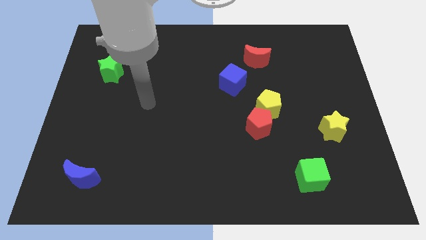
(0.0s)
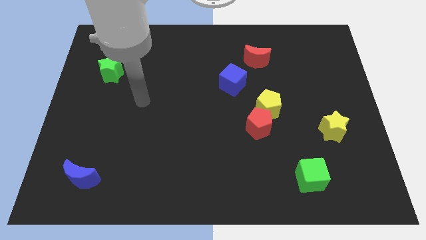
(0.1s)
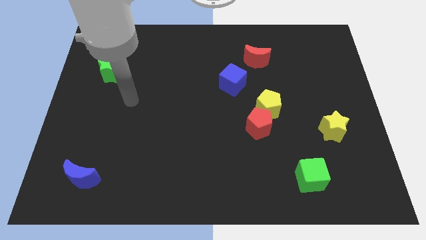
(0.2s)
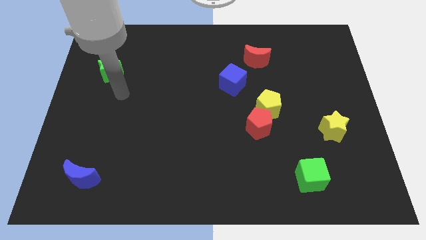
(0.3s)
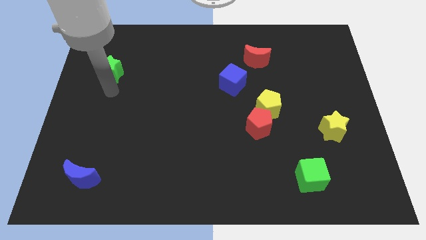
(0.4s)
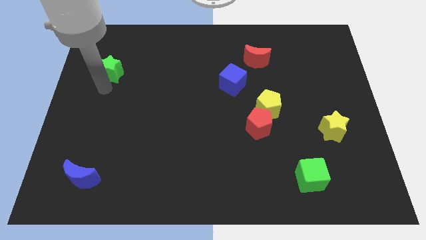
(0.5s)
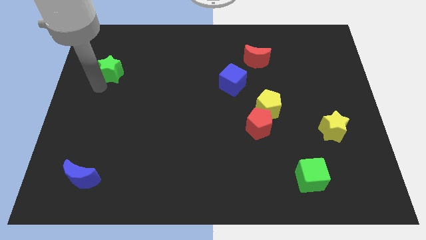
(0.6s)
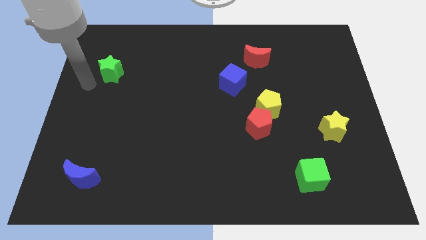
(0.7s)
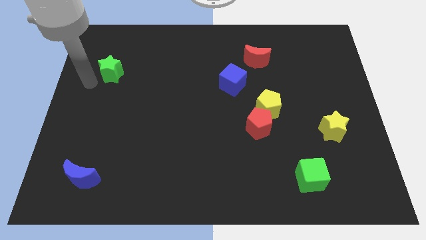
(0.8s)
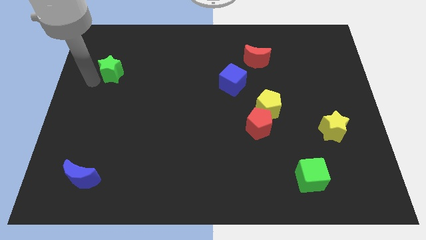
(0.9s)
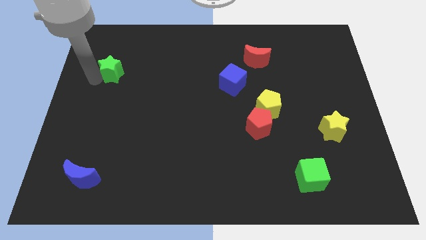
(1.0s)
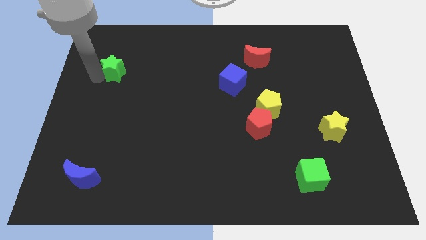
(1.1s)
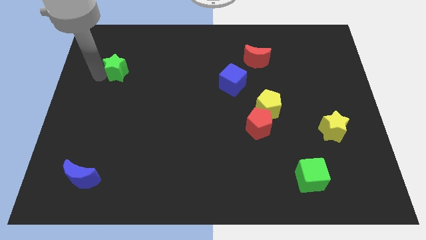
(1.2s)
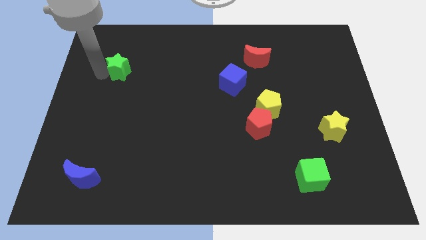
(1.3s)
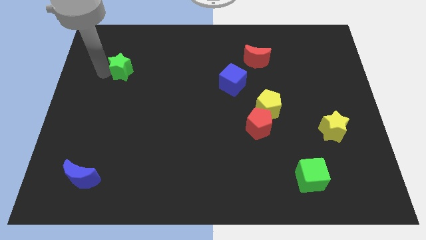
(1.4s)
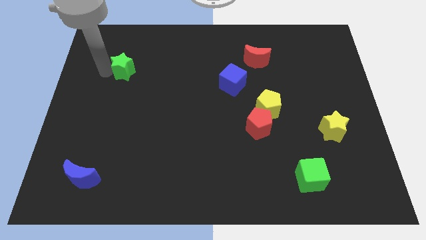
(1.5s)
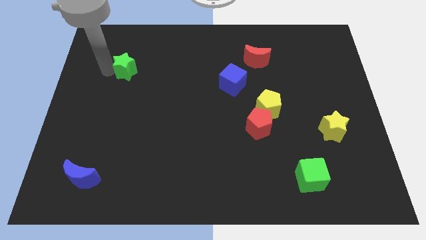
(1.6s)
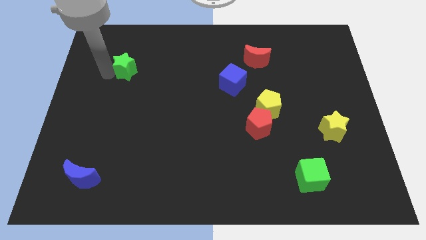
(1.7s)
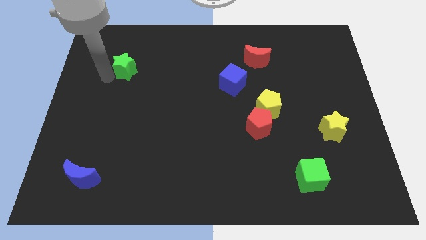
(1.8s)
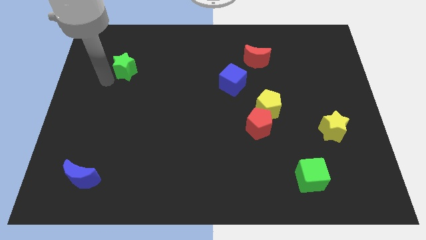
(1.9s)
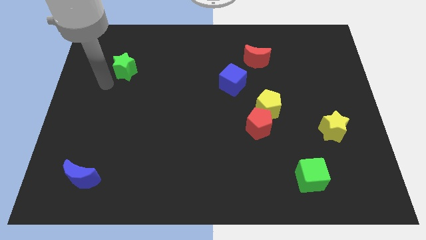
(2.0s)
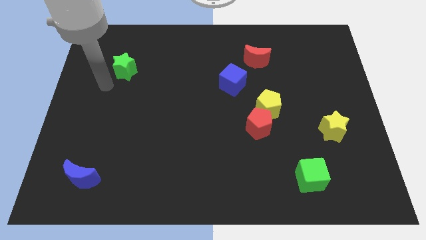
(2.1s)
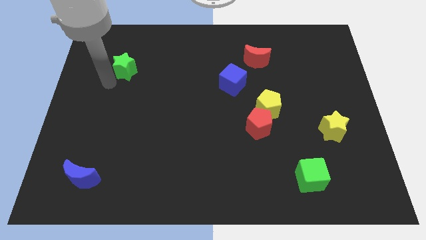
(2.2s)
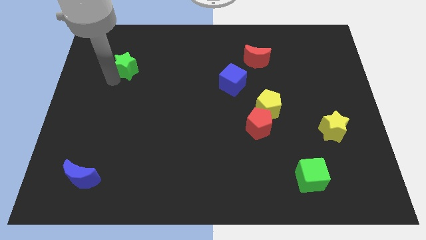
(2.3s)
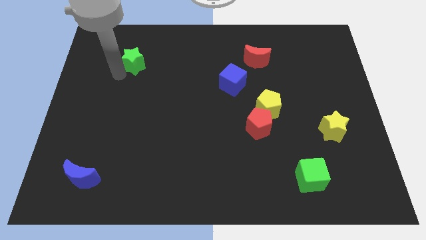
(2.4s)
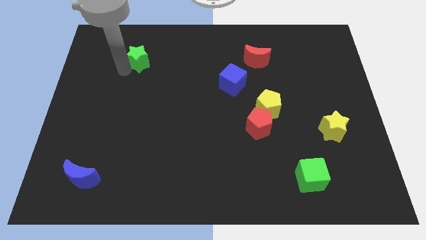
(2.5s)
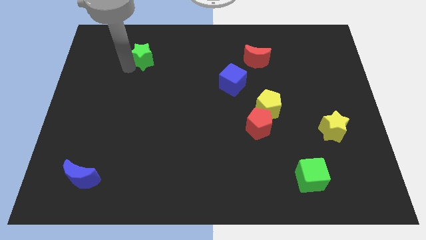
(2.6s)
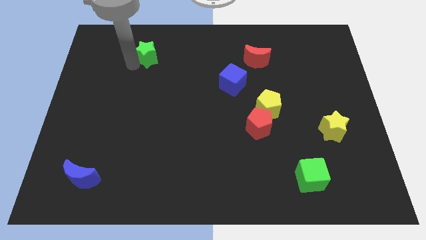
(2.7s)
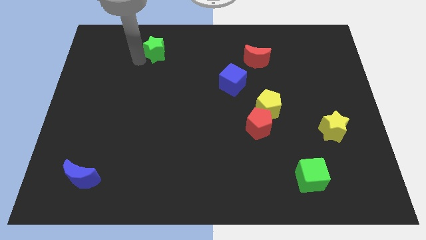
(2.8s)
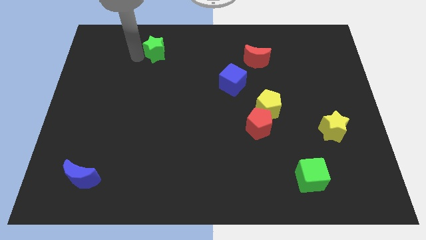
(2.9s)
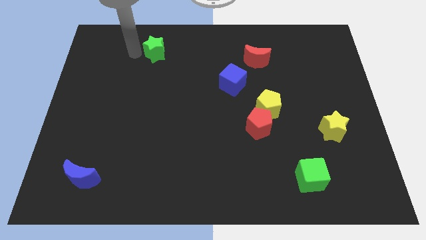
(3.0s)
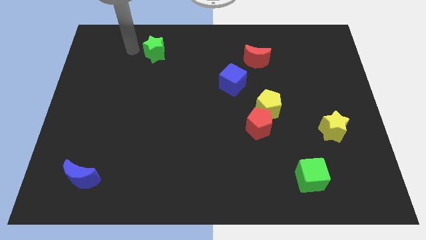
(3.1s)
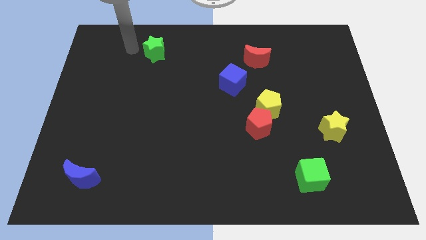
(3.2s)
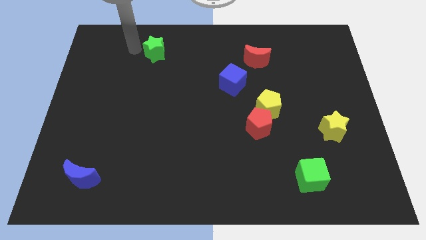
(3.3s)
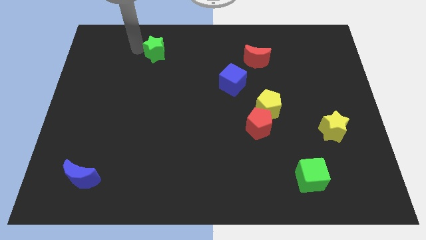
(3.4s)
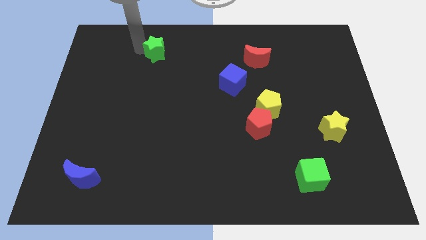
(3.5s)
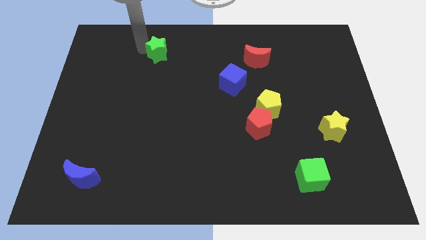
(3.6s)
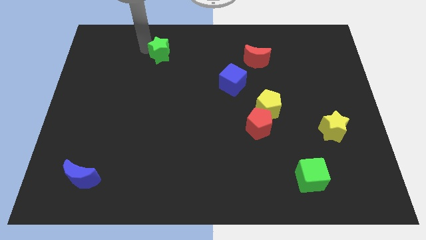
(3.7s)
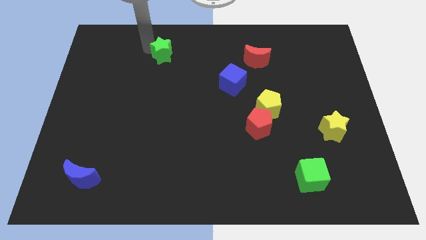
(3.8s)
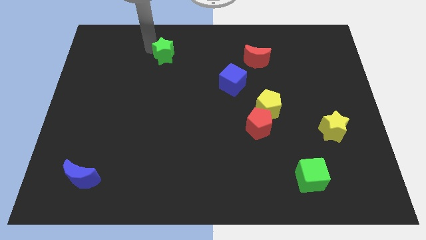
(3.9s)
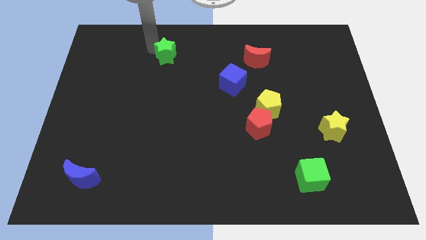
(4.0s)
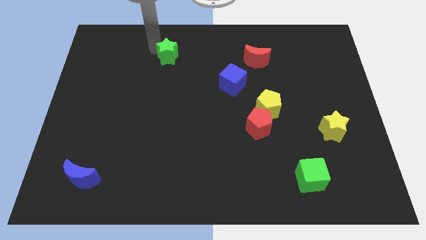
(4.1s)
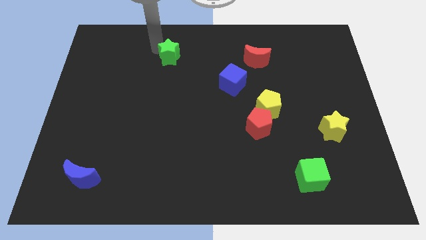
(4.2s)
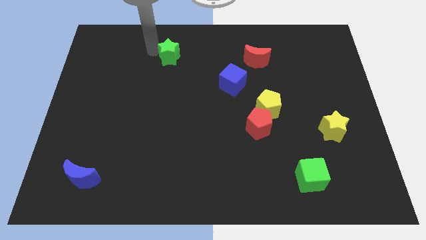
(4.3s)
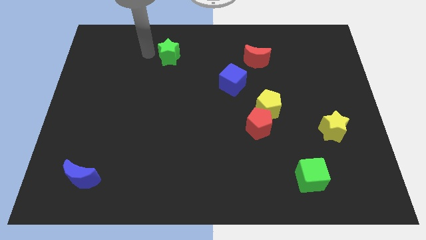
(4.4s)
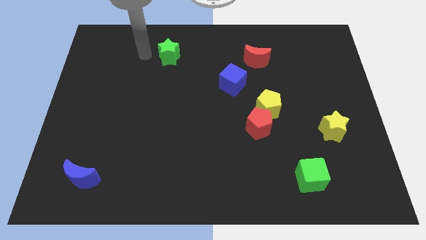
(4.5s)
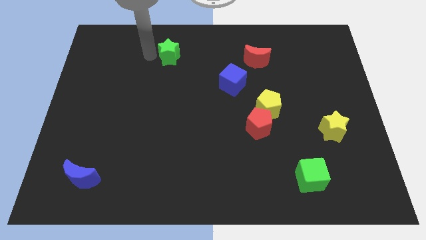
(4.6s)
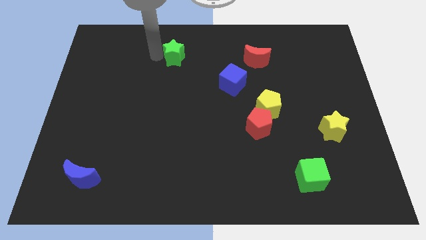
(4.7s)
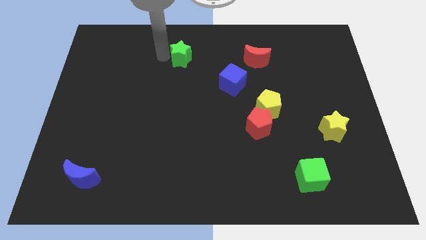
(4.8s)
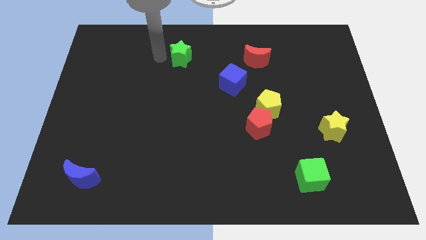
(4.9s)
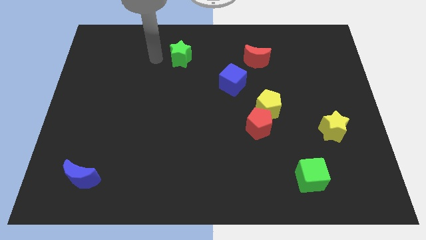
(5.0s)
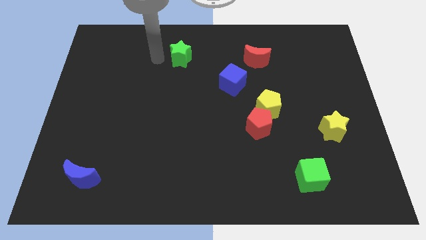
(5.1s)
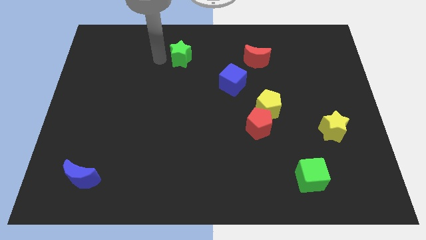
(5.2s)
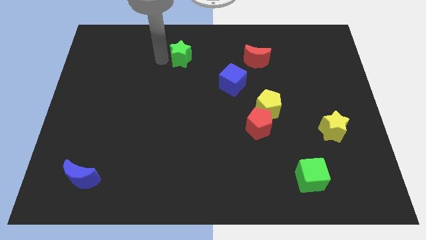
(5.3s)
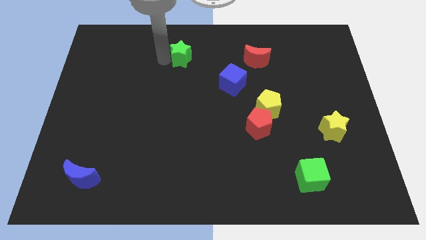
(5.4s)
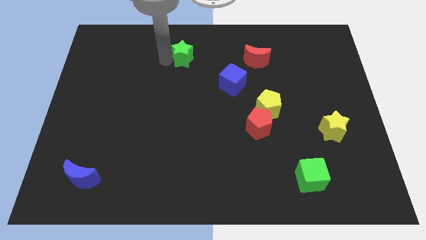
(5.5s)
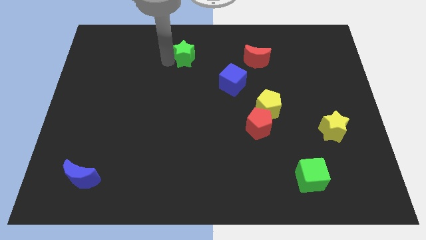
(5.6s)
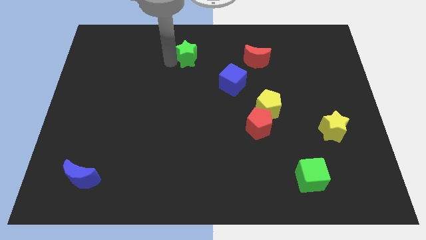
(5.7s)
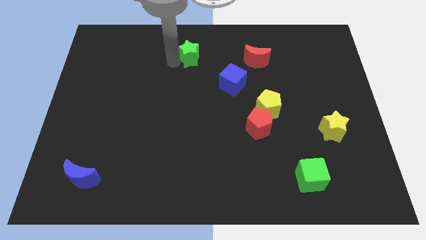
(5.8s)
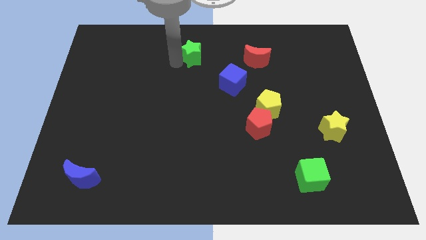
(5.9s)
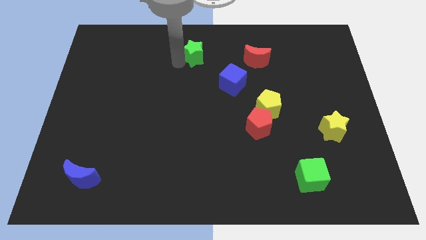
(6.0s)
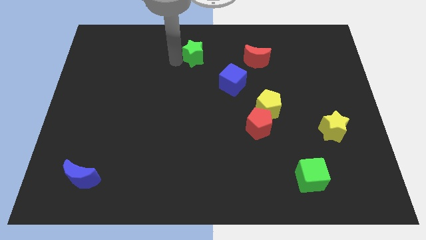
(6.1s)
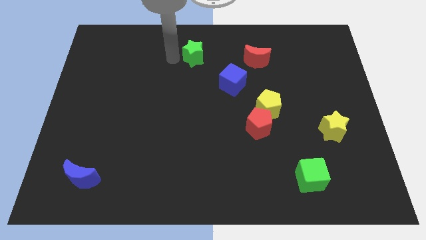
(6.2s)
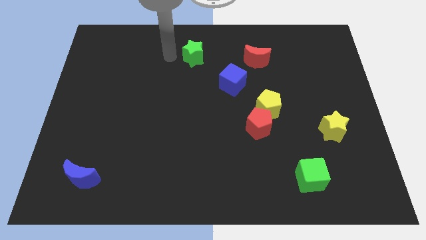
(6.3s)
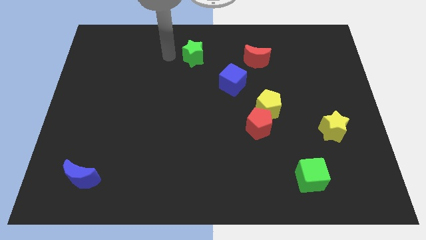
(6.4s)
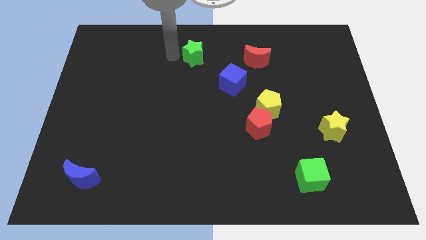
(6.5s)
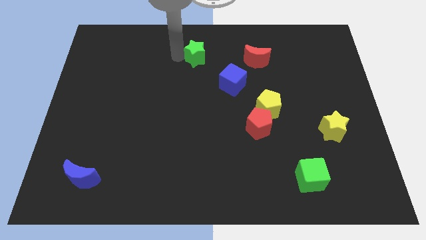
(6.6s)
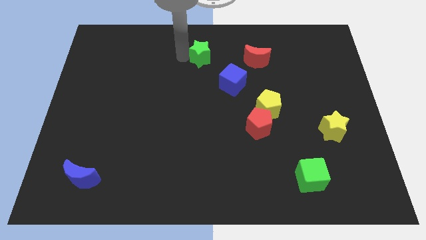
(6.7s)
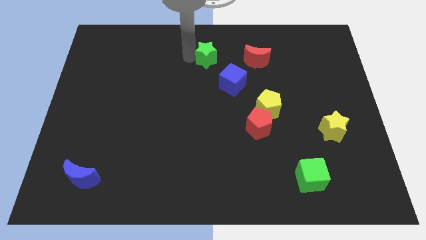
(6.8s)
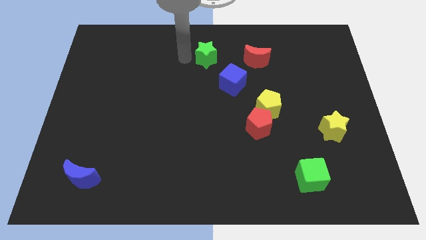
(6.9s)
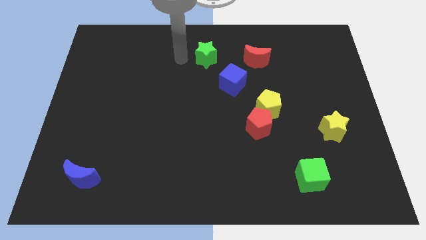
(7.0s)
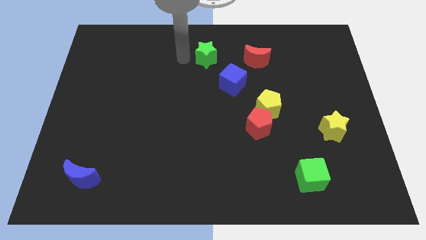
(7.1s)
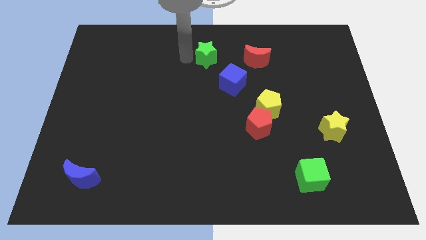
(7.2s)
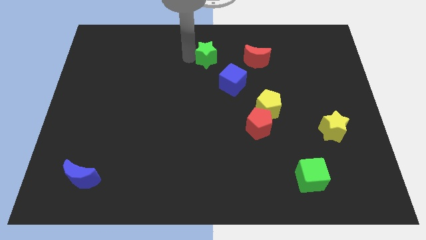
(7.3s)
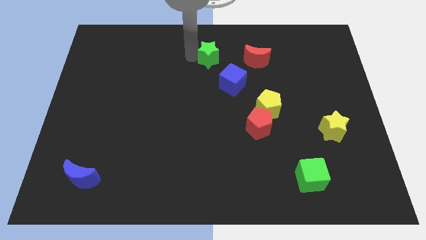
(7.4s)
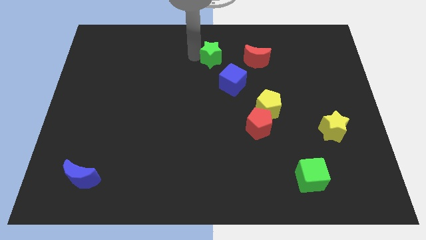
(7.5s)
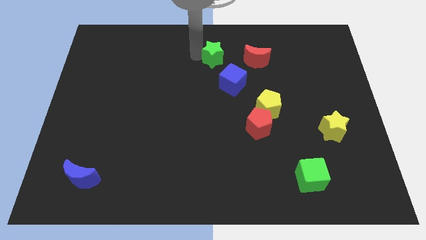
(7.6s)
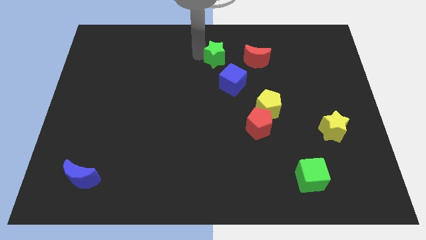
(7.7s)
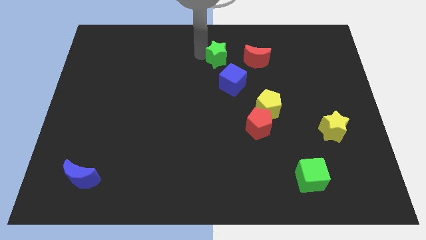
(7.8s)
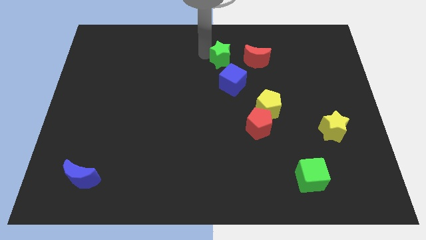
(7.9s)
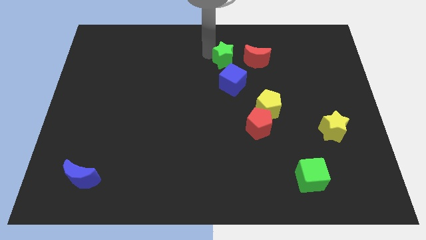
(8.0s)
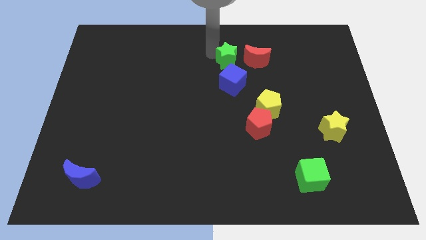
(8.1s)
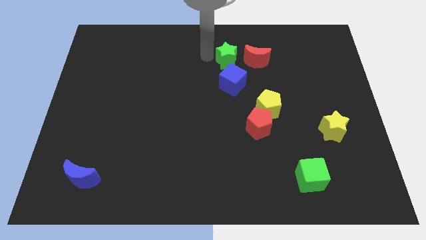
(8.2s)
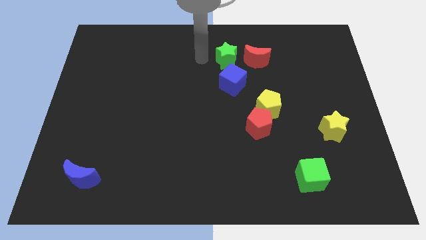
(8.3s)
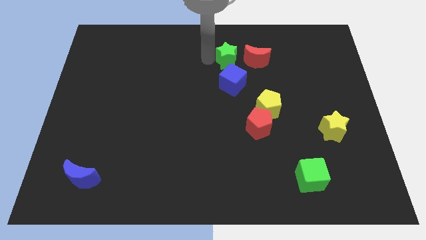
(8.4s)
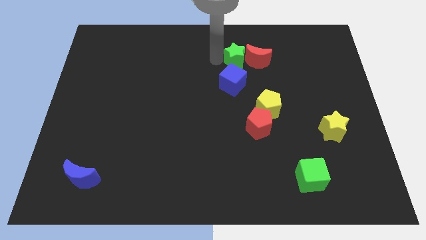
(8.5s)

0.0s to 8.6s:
push the green star to the red moon
